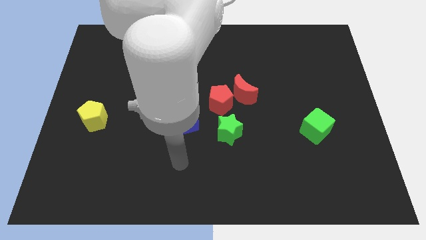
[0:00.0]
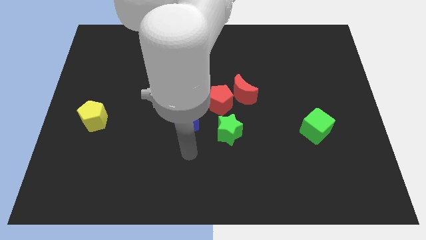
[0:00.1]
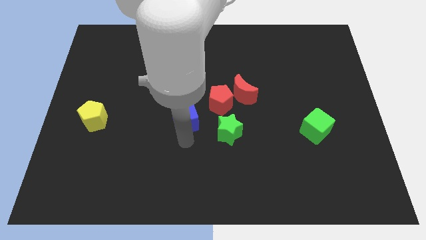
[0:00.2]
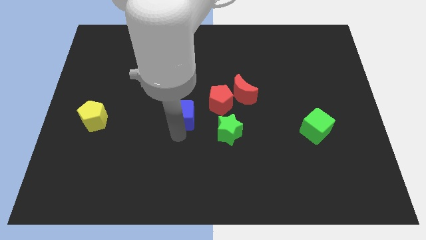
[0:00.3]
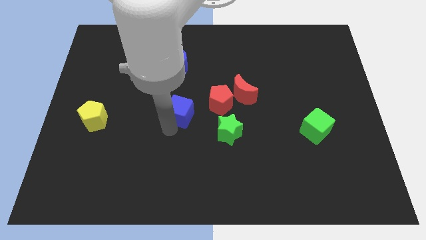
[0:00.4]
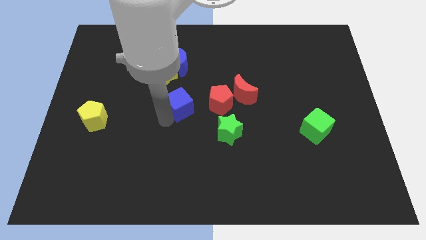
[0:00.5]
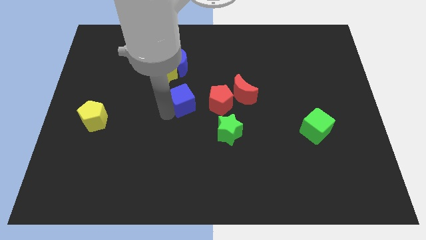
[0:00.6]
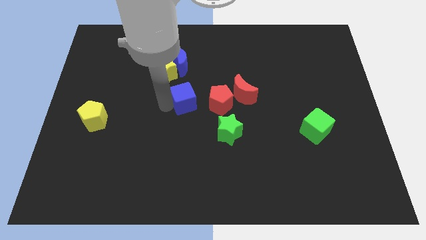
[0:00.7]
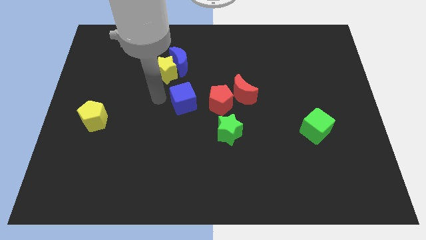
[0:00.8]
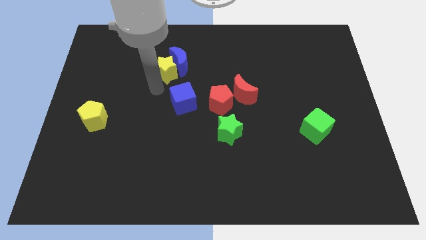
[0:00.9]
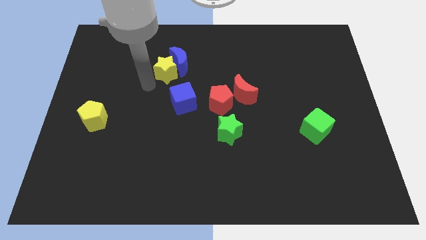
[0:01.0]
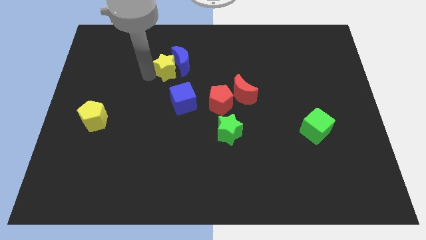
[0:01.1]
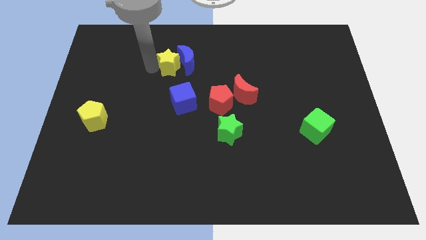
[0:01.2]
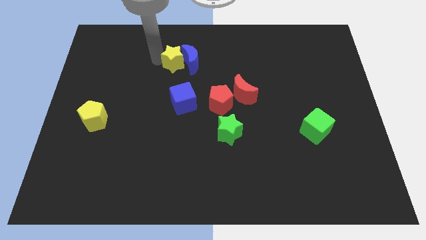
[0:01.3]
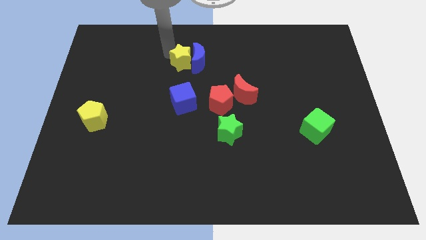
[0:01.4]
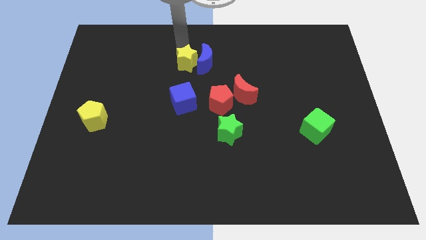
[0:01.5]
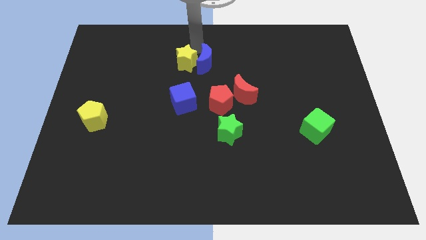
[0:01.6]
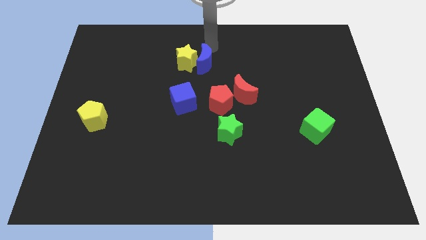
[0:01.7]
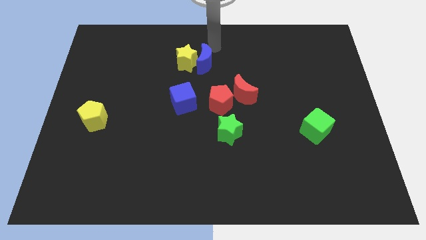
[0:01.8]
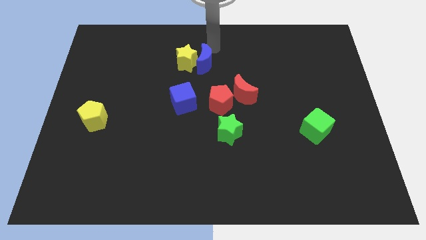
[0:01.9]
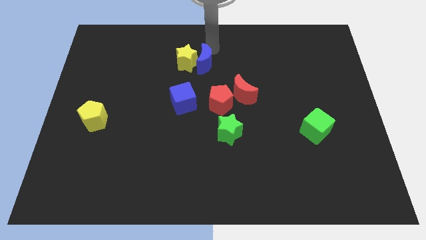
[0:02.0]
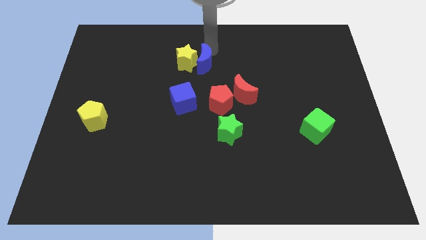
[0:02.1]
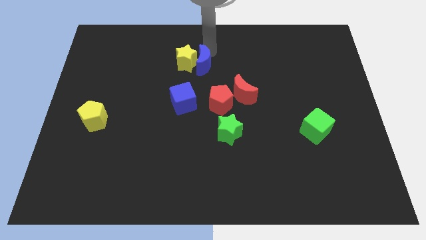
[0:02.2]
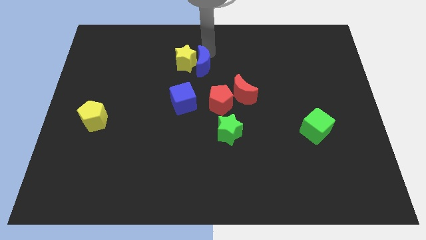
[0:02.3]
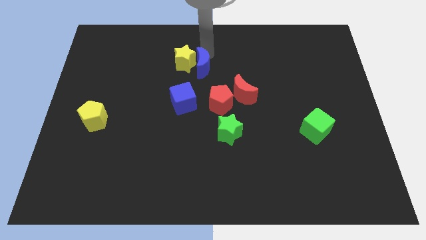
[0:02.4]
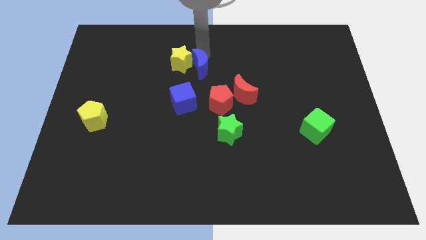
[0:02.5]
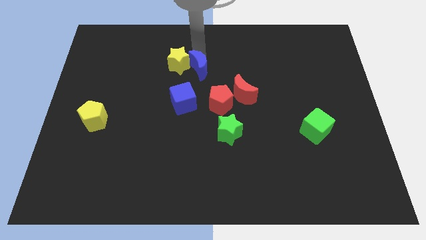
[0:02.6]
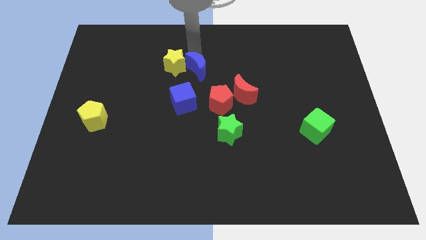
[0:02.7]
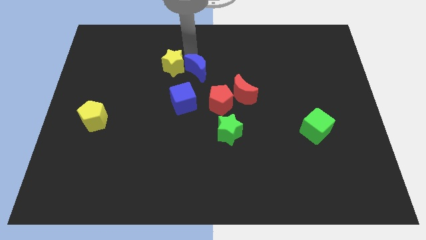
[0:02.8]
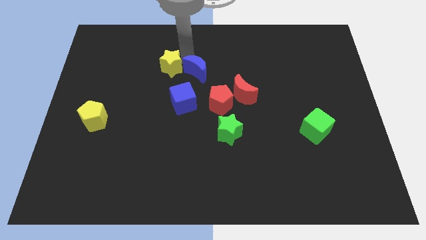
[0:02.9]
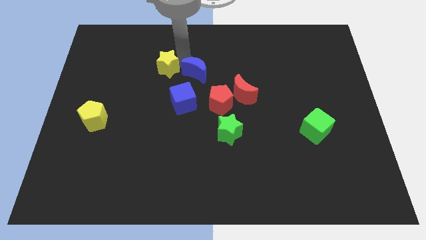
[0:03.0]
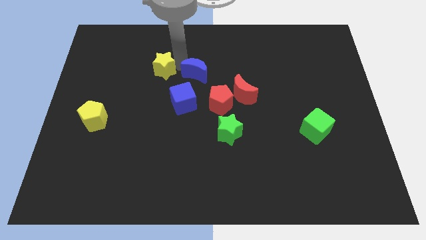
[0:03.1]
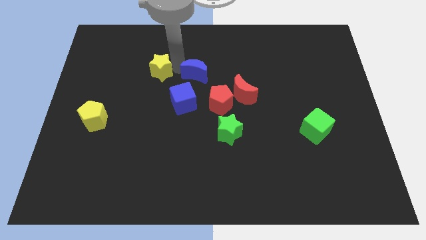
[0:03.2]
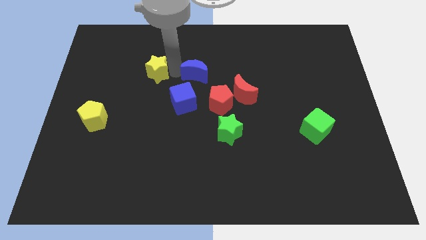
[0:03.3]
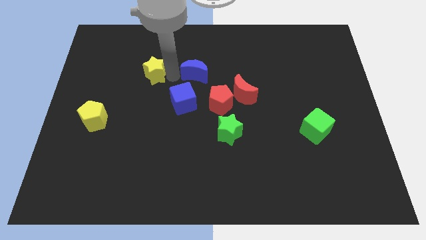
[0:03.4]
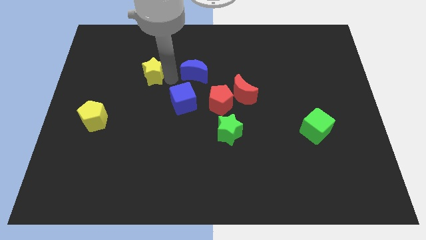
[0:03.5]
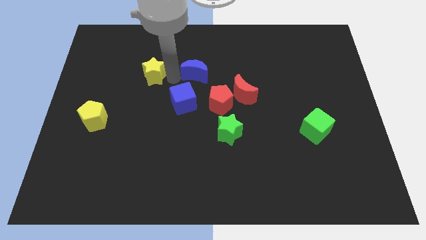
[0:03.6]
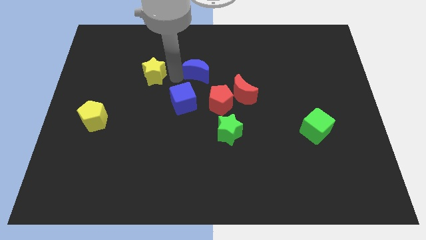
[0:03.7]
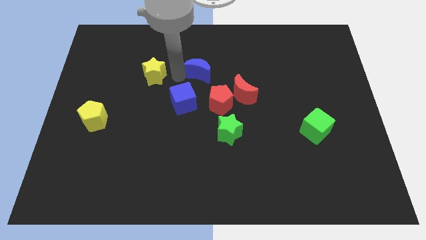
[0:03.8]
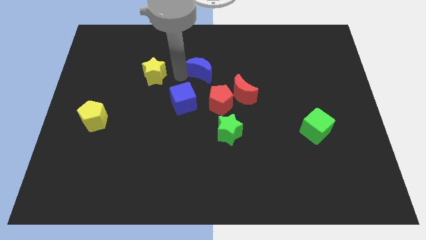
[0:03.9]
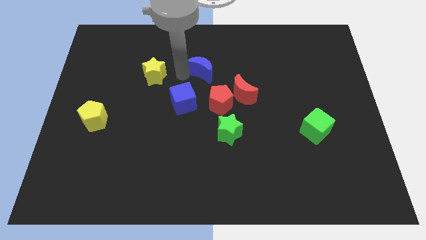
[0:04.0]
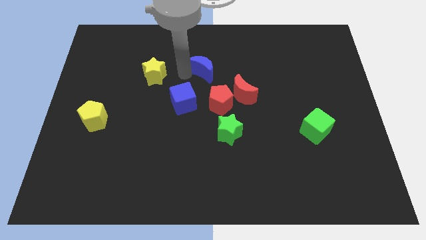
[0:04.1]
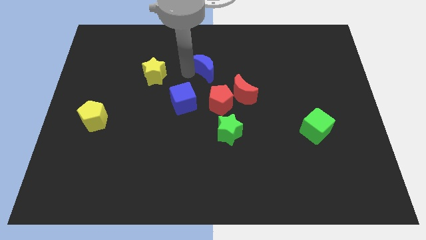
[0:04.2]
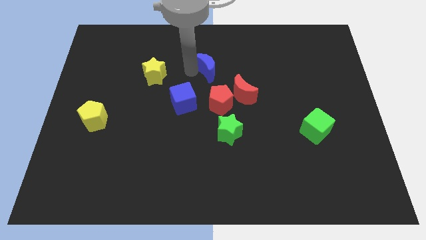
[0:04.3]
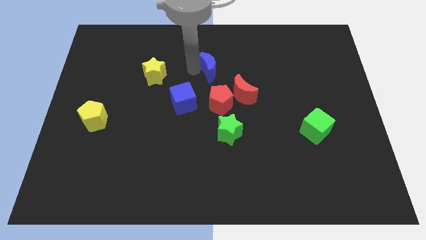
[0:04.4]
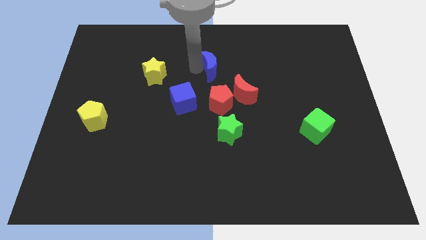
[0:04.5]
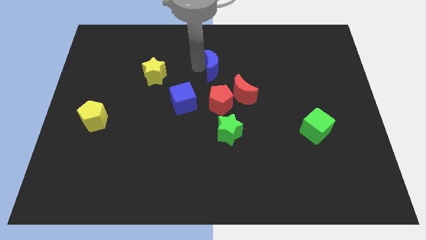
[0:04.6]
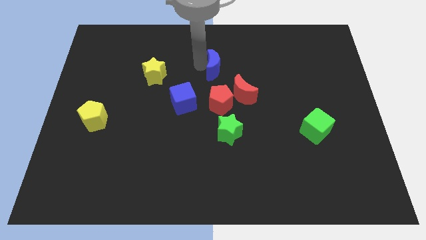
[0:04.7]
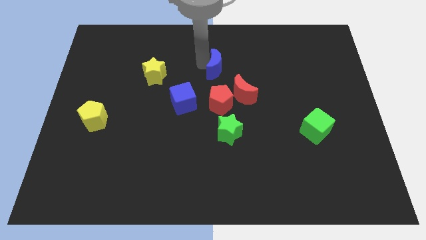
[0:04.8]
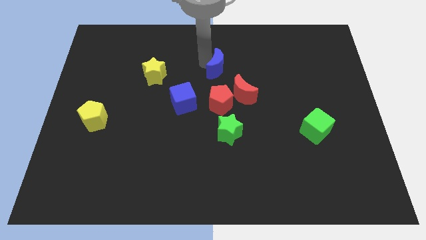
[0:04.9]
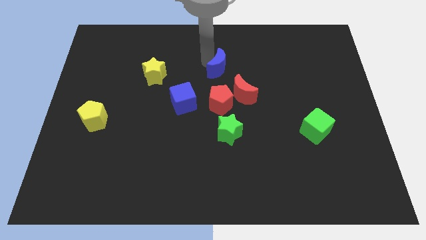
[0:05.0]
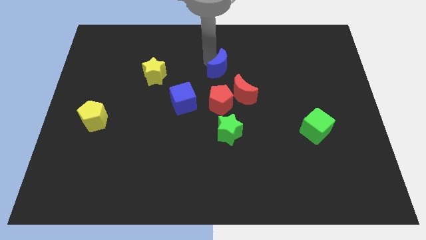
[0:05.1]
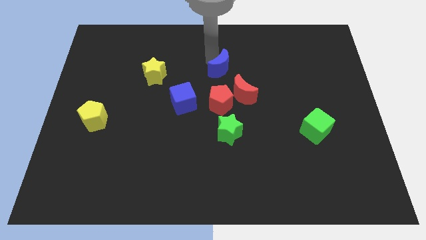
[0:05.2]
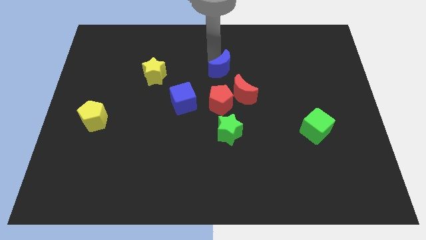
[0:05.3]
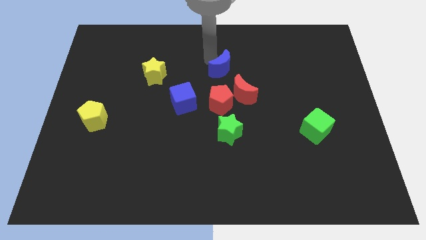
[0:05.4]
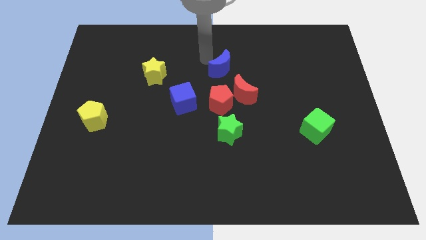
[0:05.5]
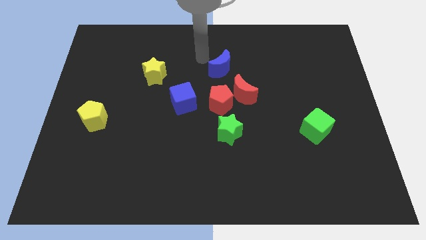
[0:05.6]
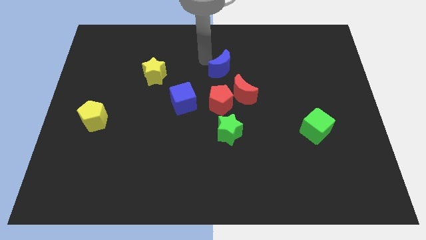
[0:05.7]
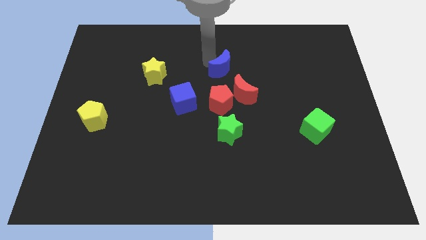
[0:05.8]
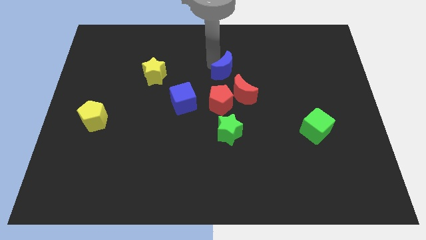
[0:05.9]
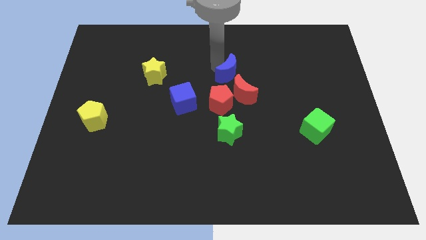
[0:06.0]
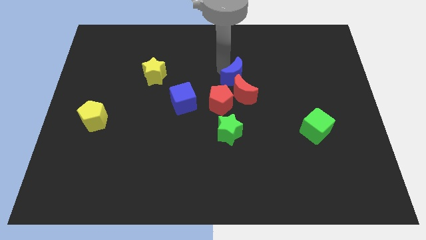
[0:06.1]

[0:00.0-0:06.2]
put the blue moon to the top right of the red pentagon

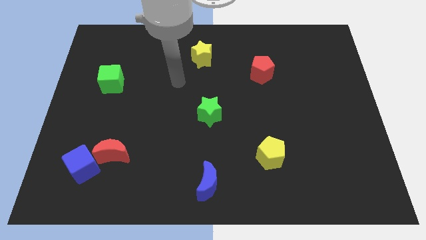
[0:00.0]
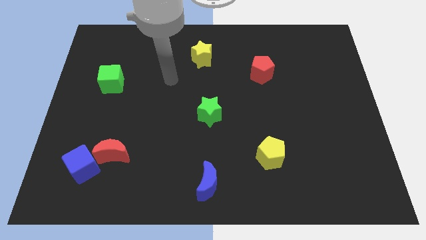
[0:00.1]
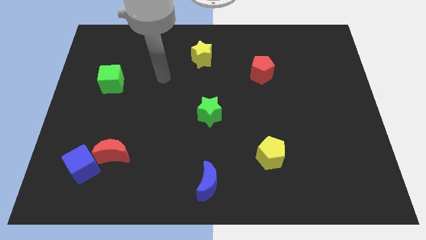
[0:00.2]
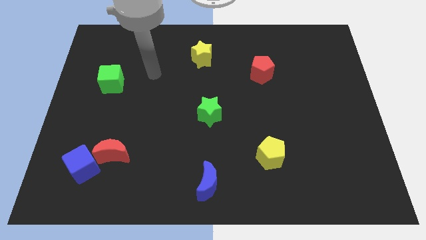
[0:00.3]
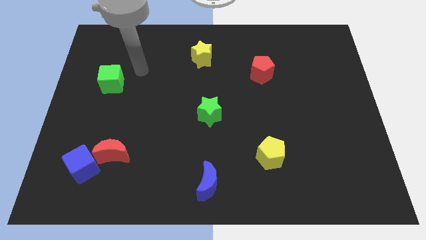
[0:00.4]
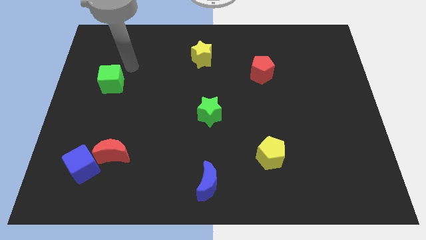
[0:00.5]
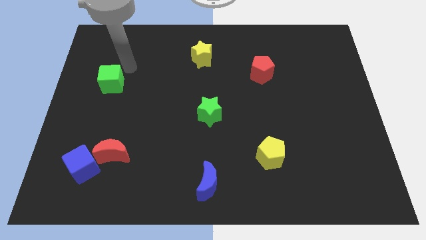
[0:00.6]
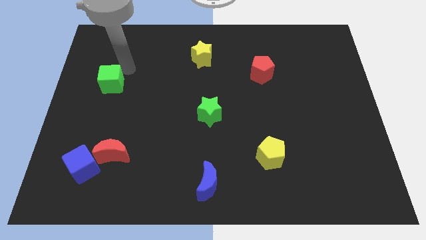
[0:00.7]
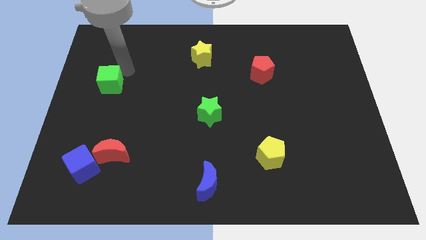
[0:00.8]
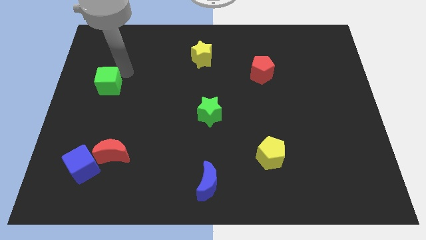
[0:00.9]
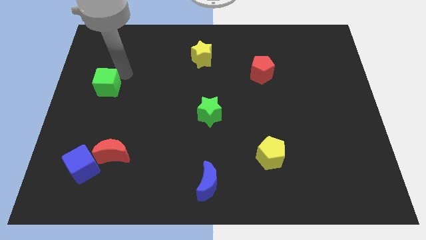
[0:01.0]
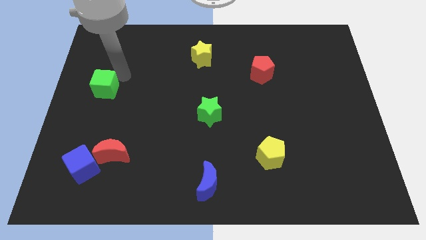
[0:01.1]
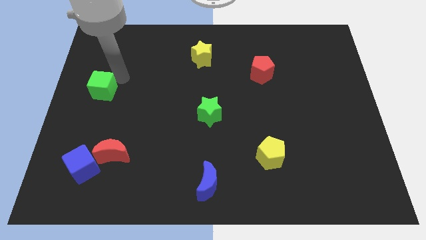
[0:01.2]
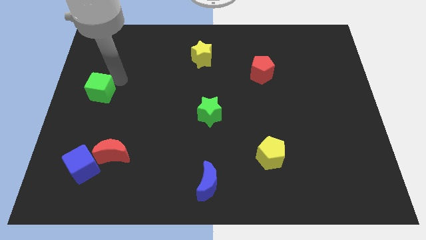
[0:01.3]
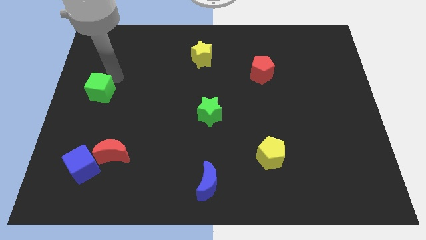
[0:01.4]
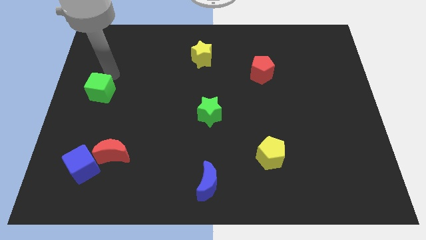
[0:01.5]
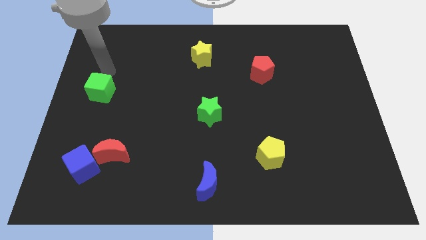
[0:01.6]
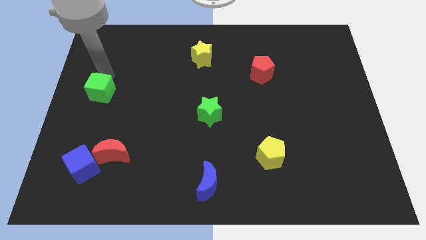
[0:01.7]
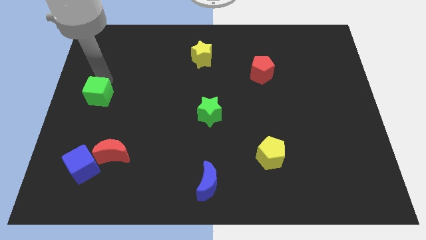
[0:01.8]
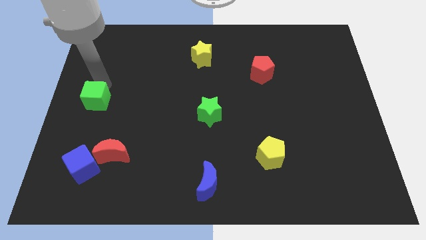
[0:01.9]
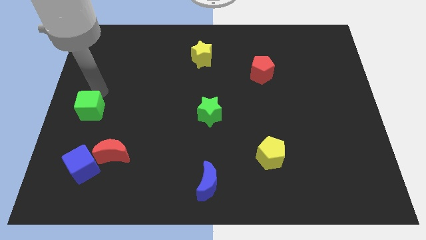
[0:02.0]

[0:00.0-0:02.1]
put the green cube to the top side of the blue cube

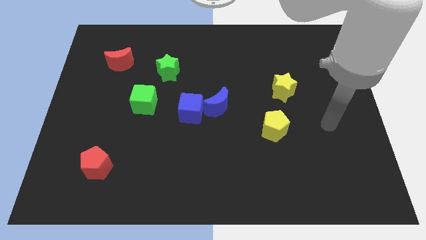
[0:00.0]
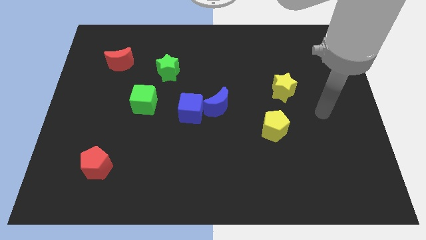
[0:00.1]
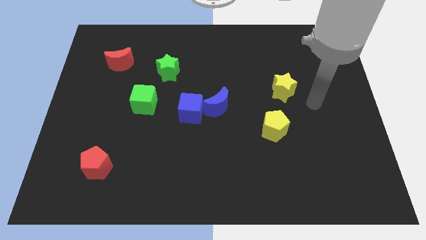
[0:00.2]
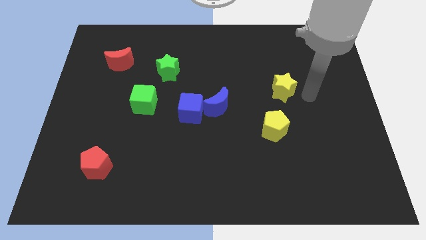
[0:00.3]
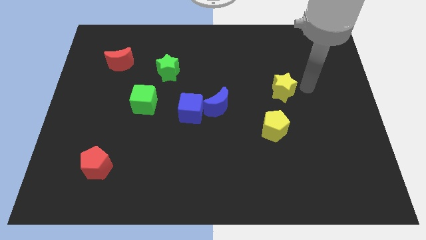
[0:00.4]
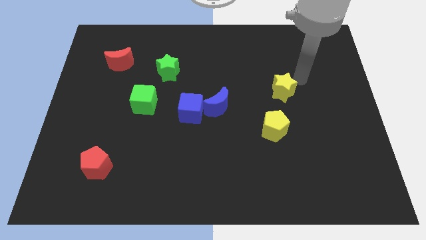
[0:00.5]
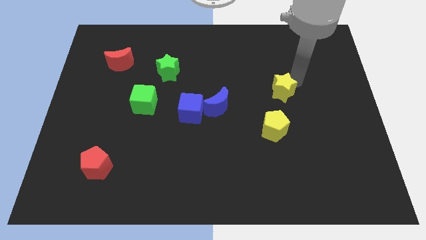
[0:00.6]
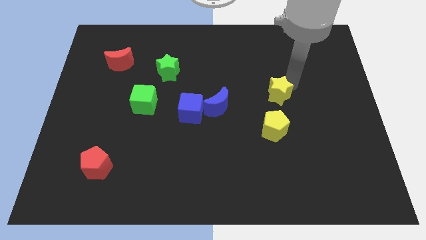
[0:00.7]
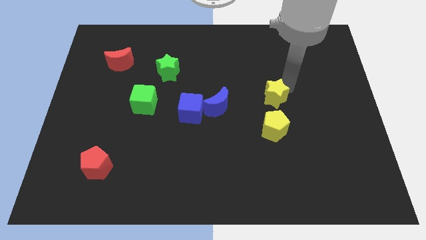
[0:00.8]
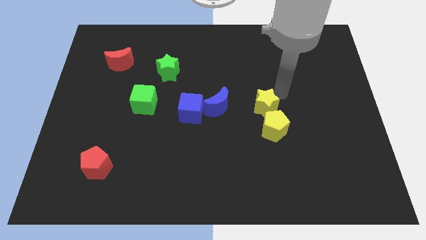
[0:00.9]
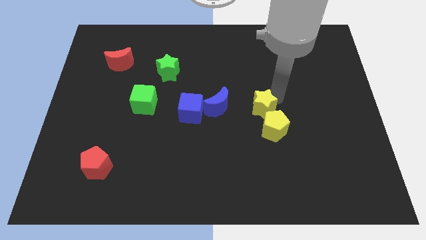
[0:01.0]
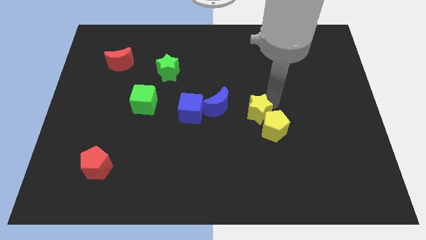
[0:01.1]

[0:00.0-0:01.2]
put the yellow star just right of the blue cube
